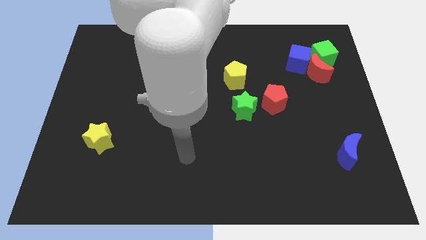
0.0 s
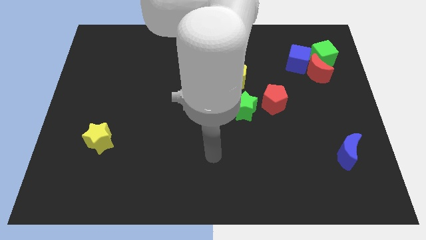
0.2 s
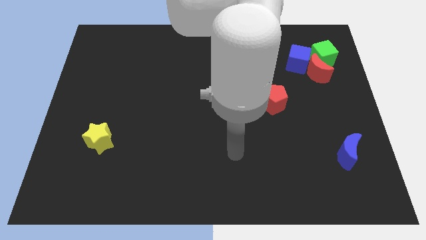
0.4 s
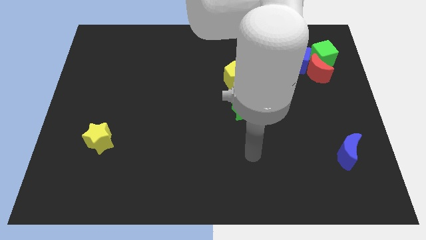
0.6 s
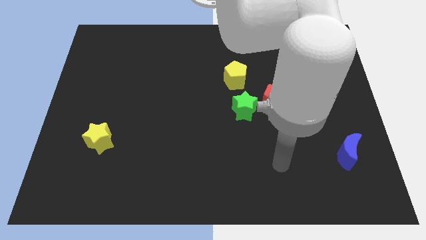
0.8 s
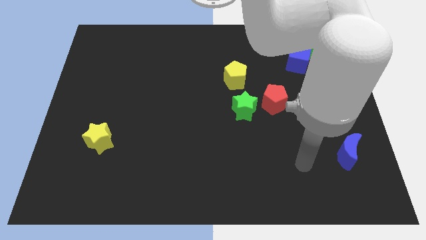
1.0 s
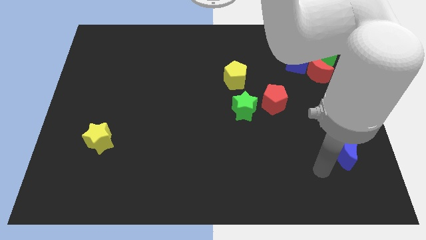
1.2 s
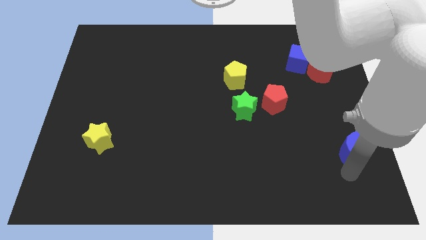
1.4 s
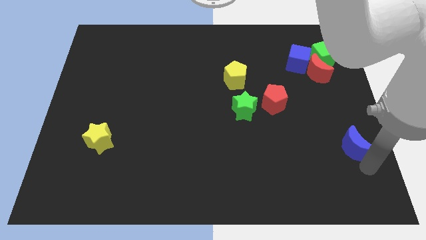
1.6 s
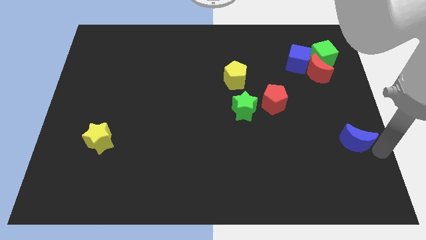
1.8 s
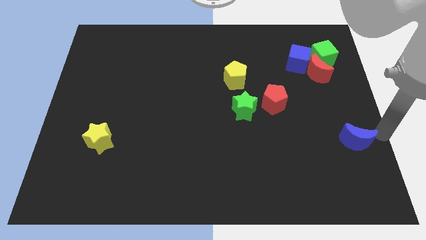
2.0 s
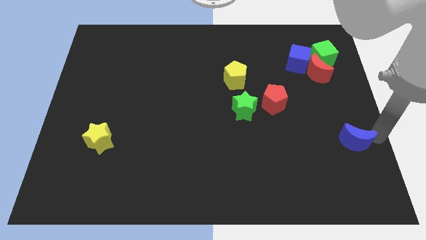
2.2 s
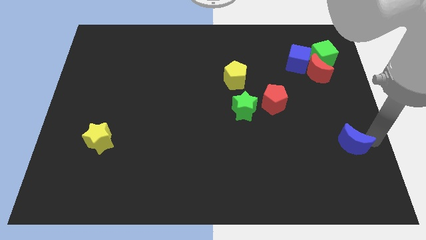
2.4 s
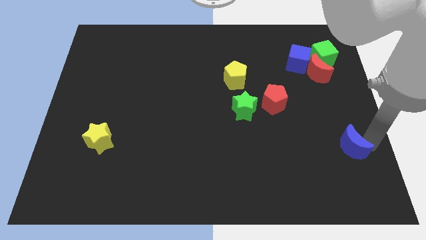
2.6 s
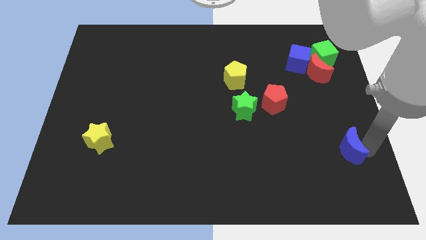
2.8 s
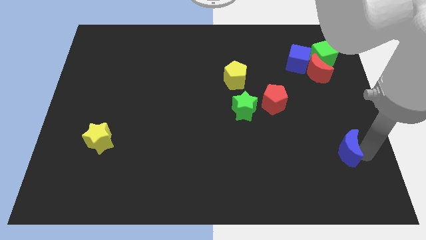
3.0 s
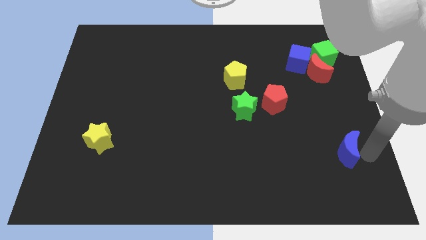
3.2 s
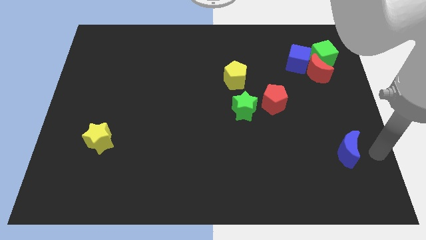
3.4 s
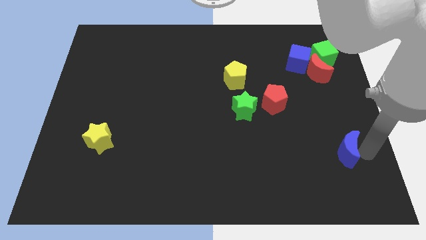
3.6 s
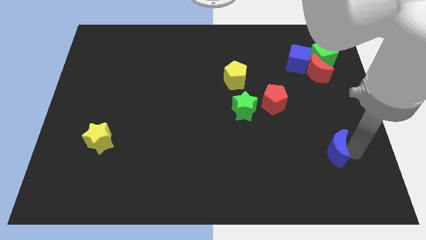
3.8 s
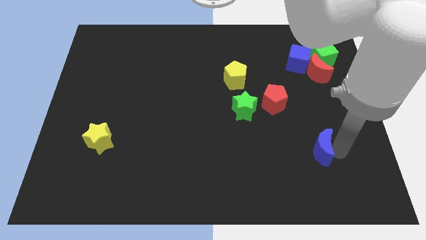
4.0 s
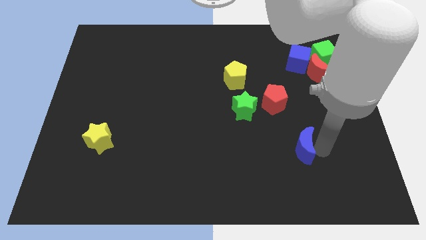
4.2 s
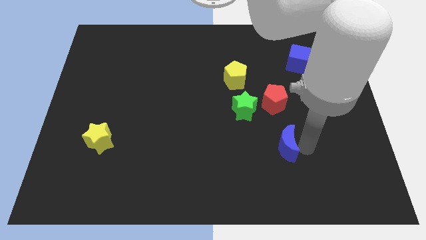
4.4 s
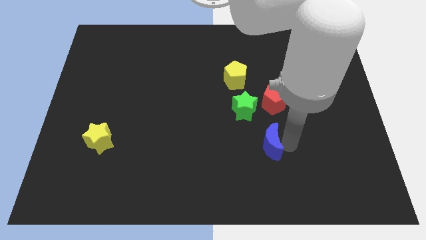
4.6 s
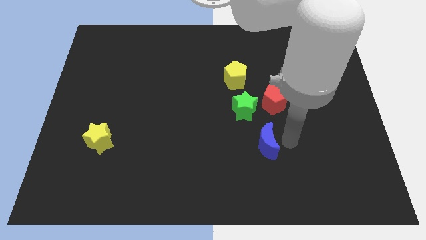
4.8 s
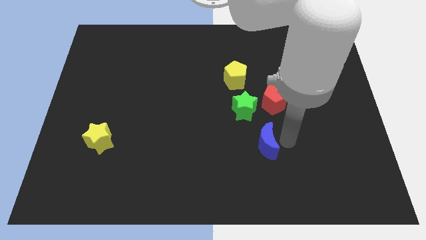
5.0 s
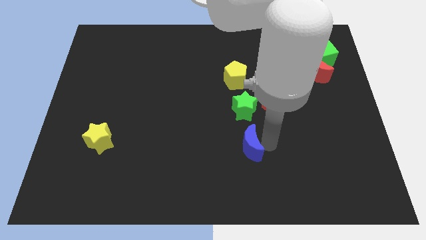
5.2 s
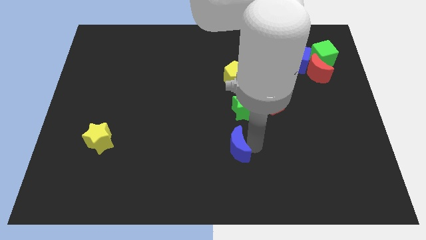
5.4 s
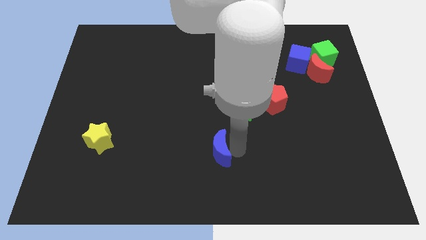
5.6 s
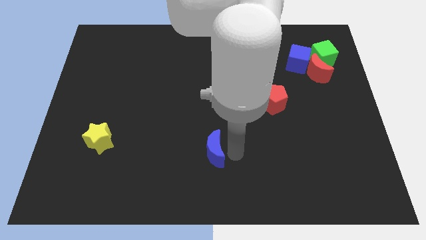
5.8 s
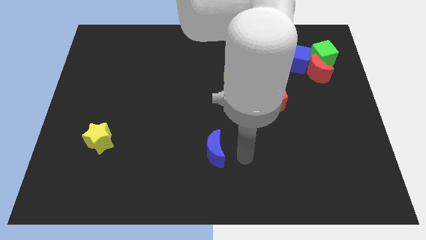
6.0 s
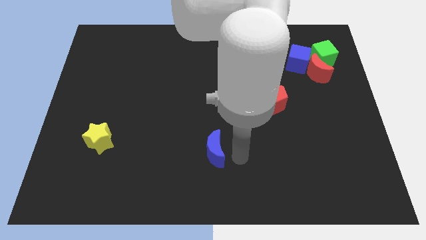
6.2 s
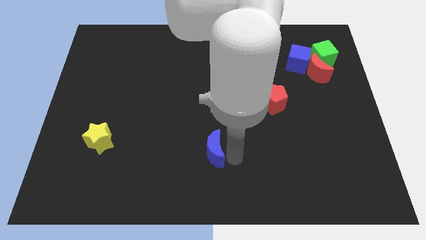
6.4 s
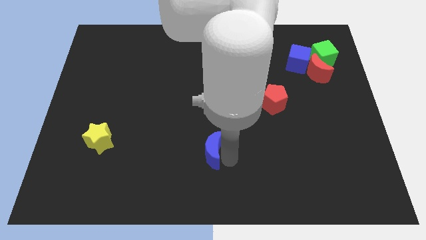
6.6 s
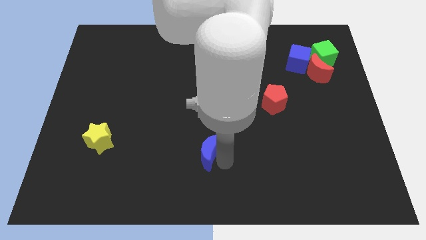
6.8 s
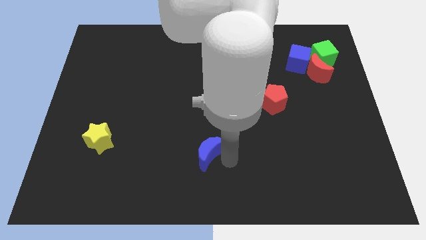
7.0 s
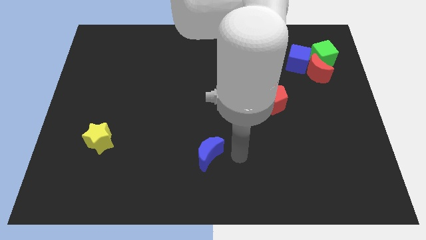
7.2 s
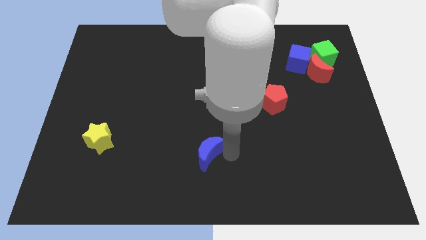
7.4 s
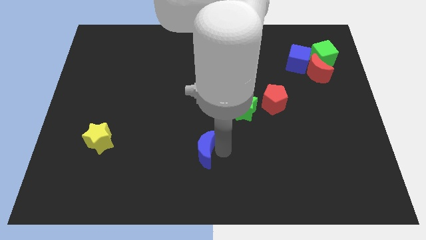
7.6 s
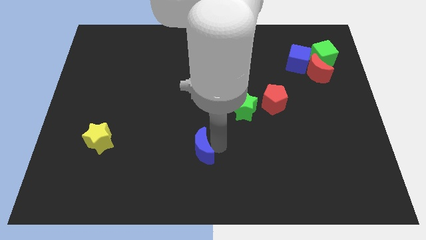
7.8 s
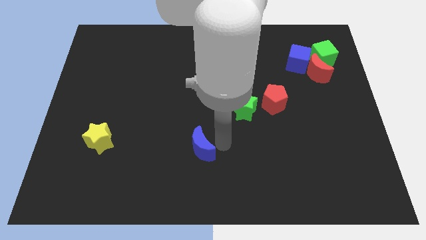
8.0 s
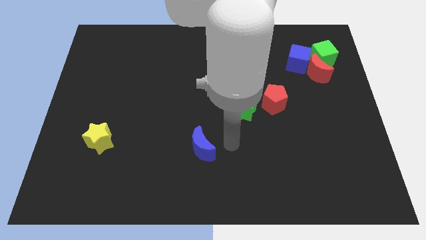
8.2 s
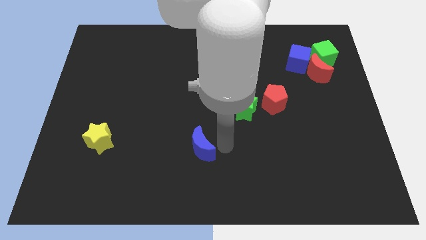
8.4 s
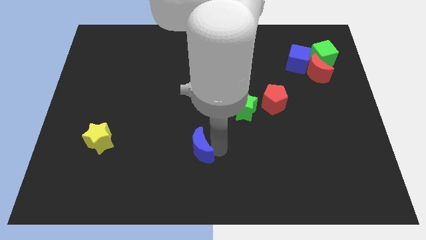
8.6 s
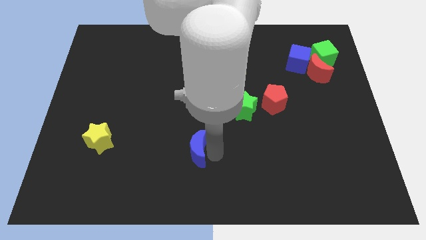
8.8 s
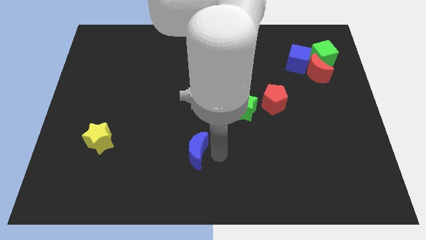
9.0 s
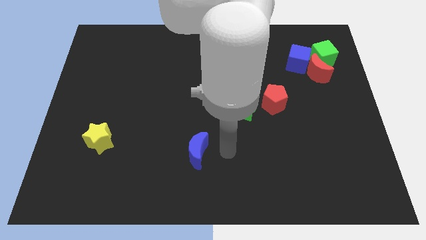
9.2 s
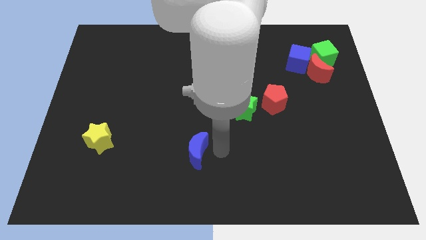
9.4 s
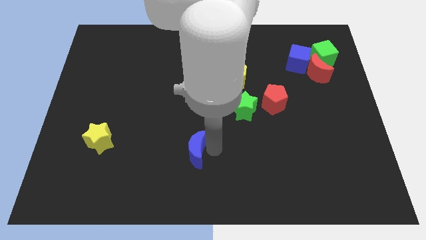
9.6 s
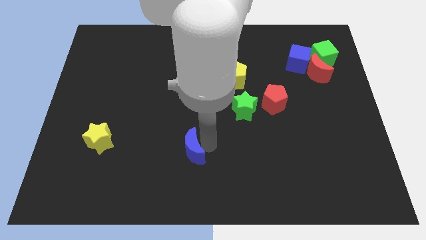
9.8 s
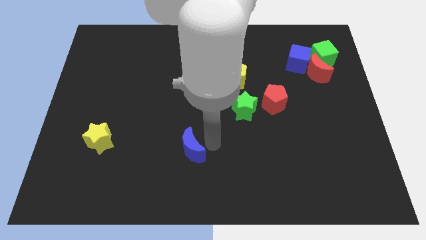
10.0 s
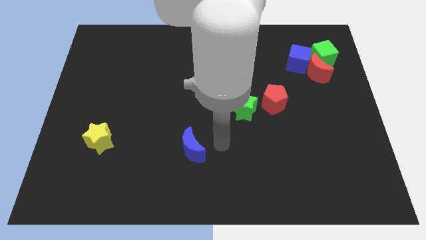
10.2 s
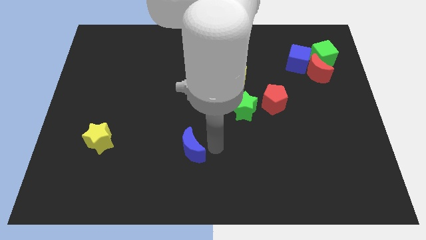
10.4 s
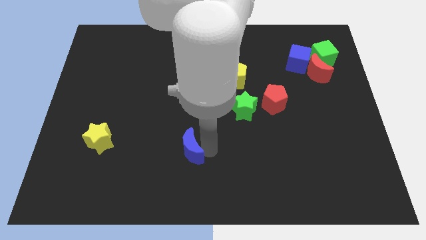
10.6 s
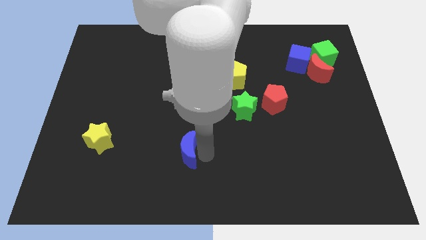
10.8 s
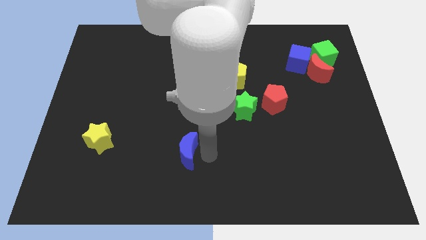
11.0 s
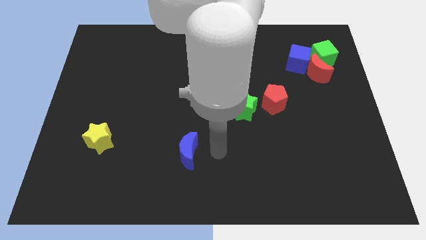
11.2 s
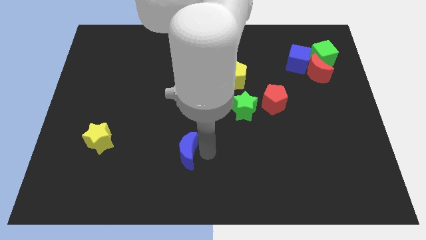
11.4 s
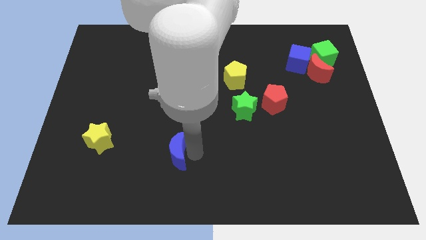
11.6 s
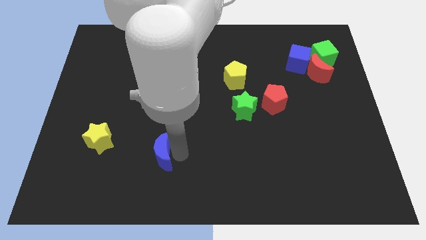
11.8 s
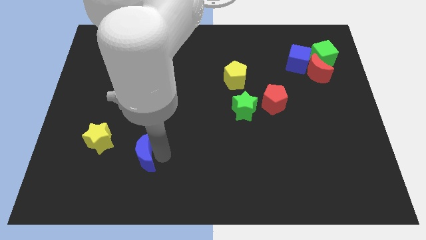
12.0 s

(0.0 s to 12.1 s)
slide the blue moon diagonally down and to the right of the yellow star
